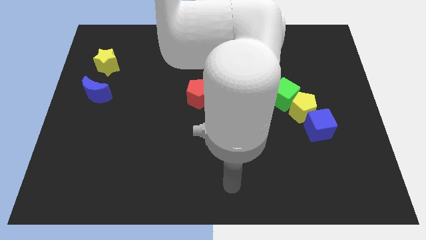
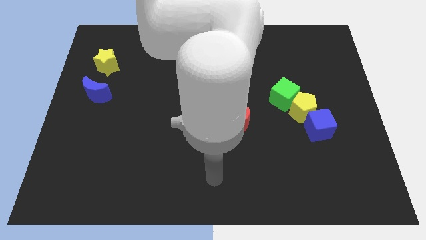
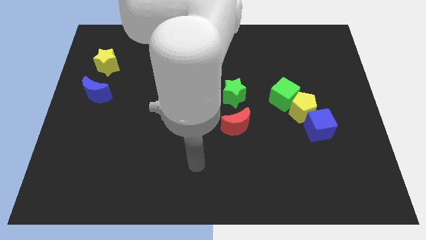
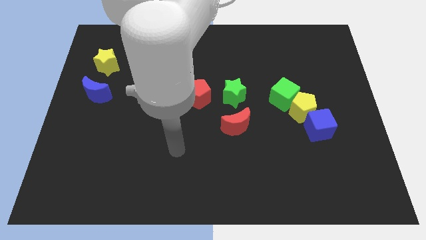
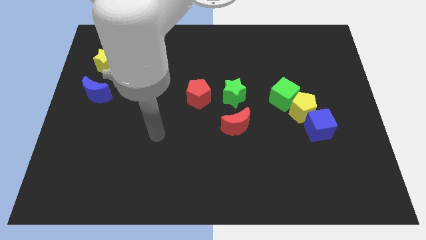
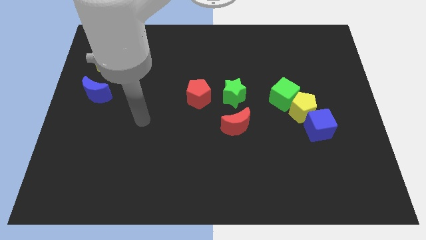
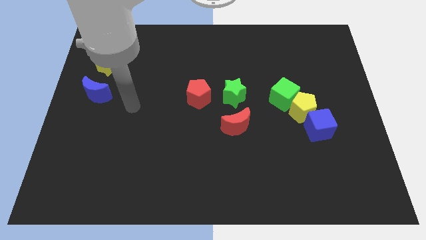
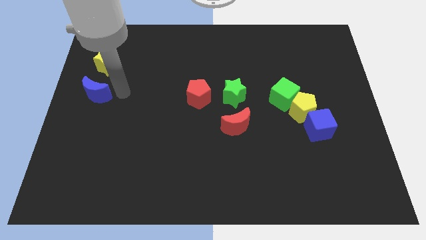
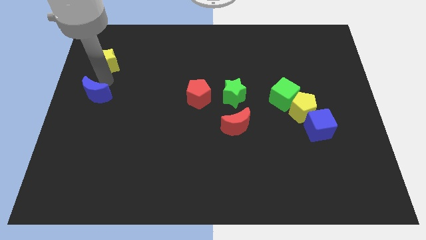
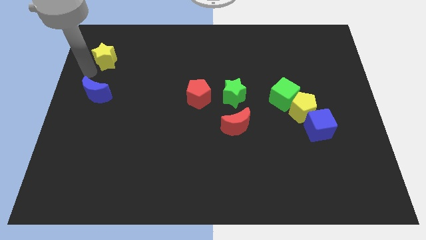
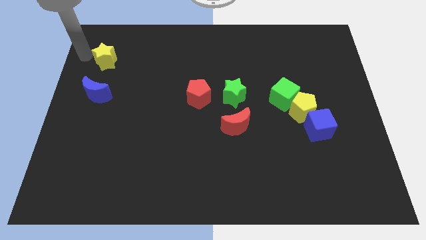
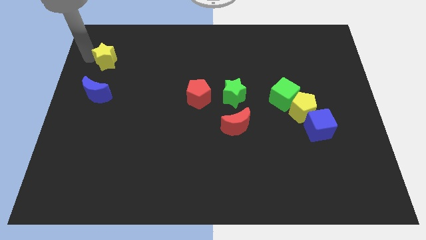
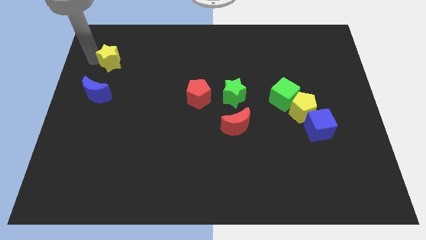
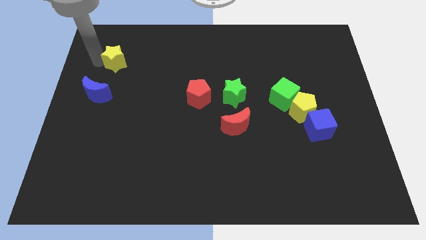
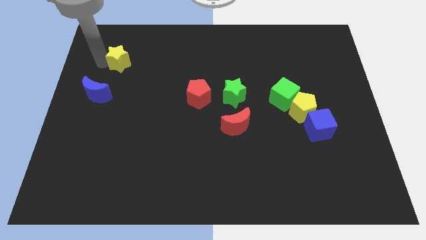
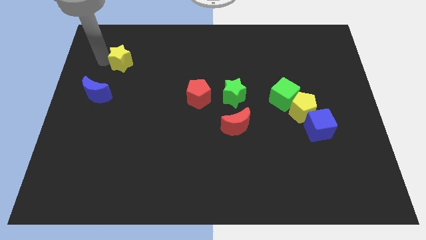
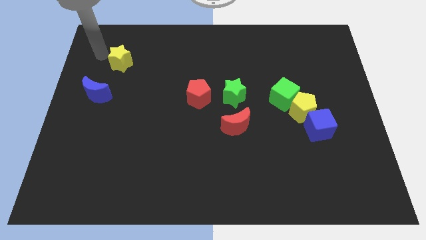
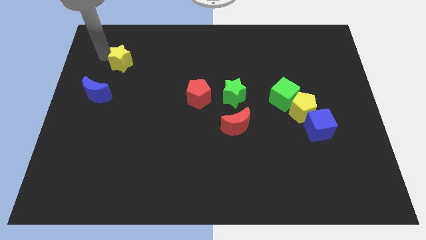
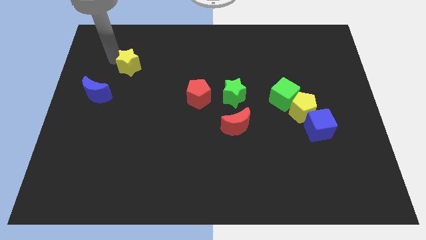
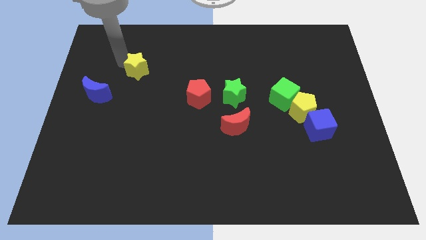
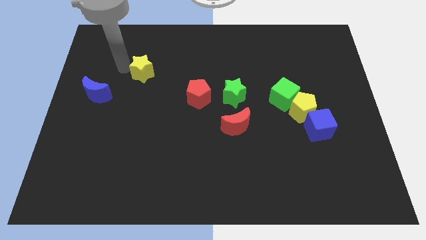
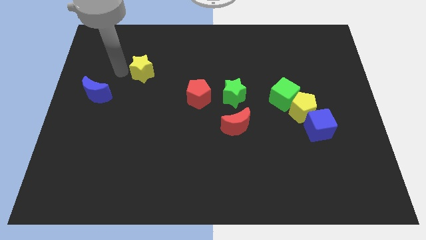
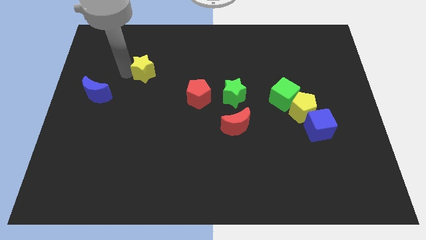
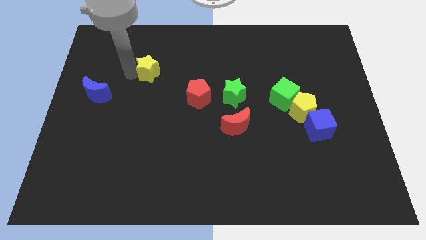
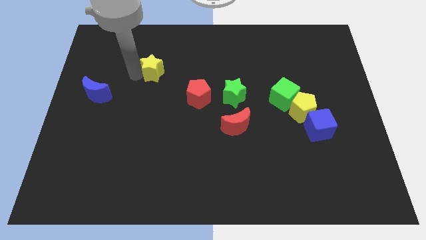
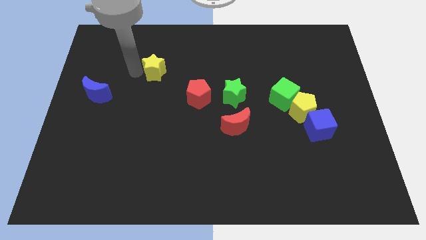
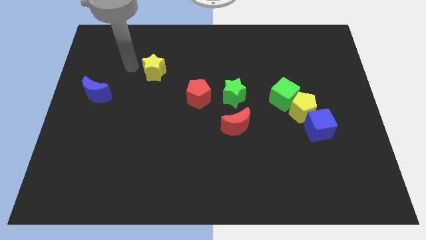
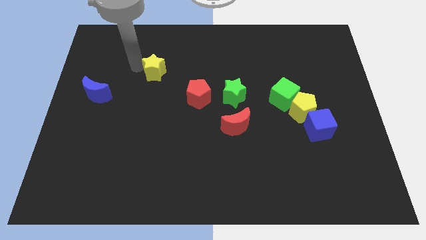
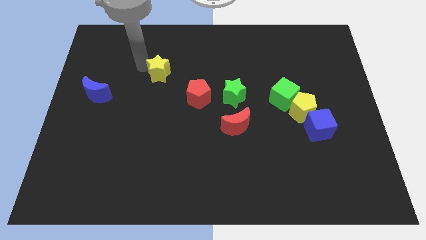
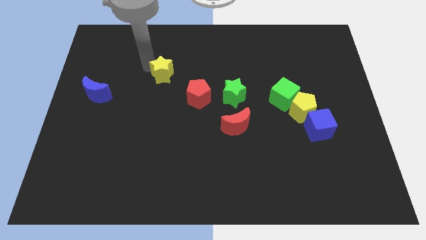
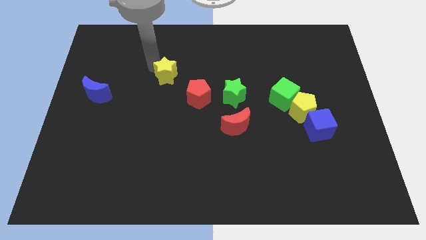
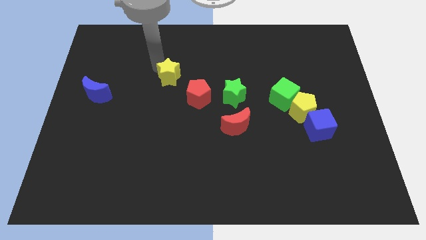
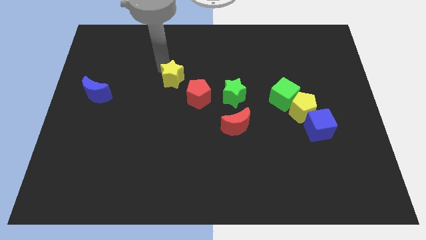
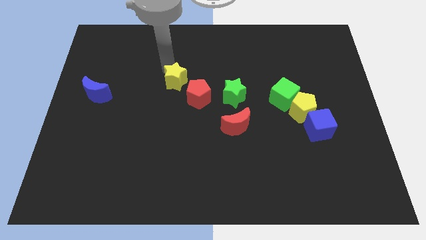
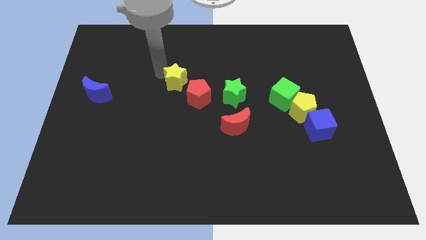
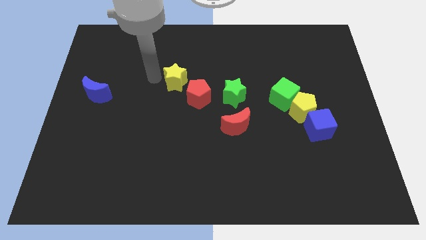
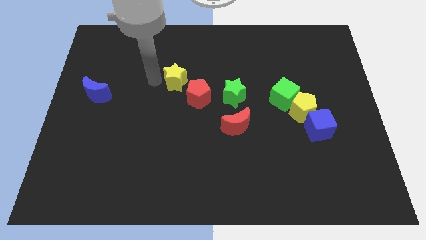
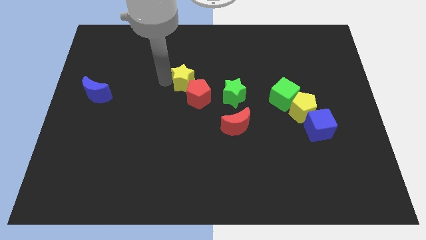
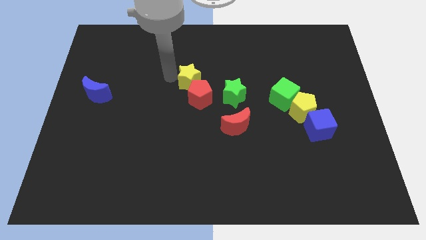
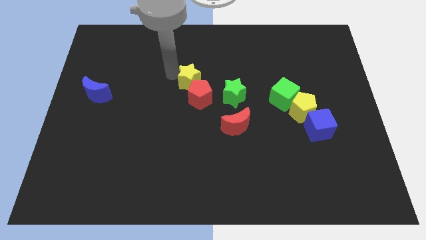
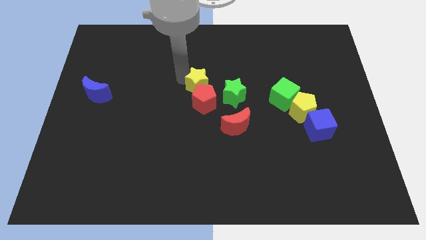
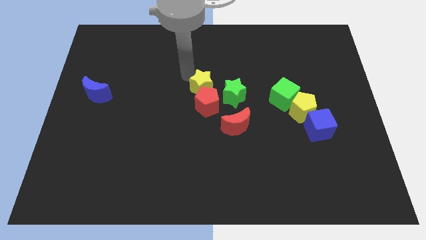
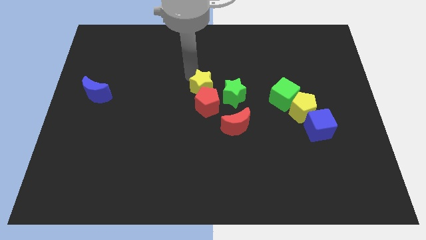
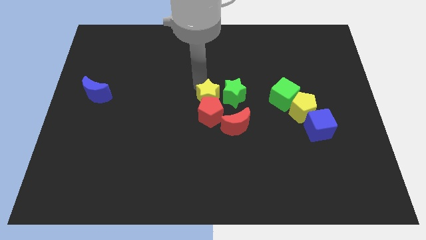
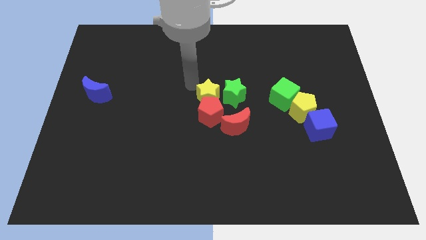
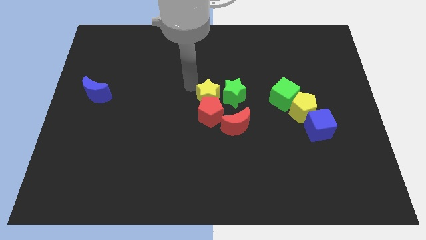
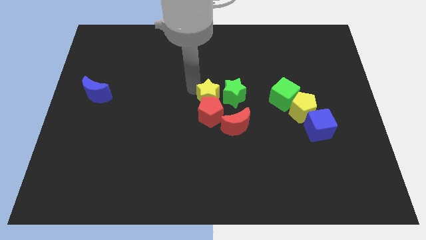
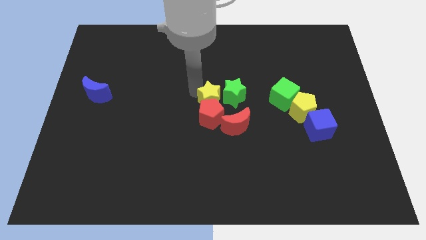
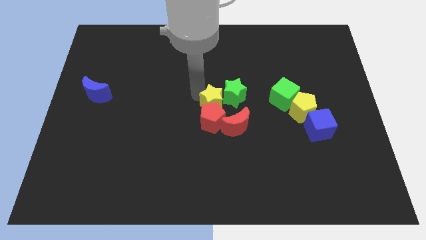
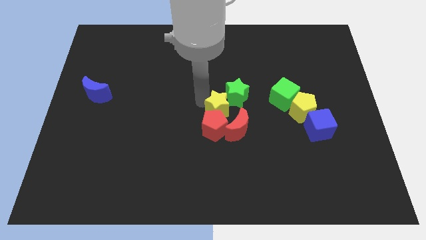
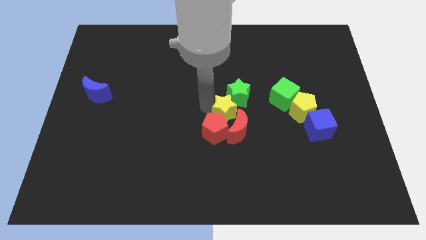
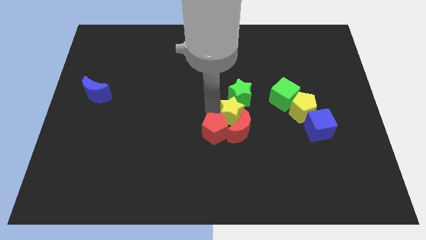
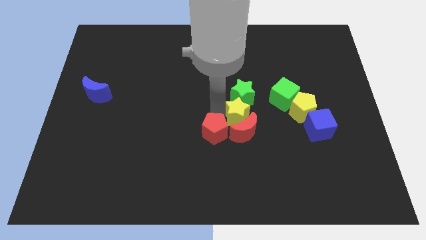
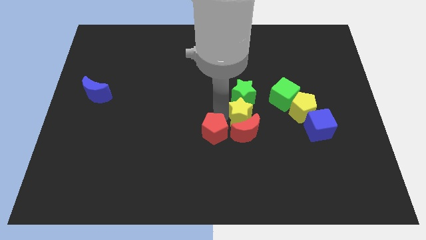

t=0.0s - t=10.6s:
put the yellow star to the bottom right of the green star

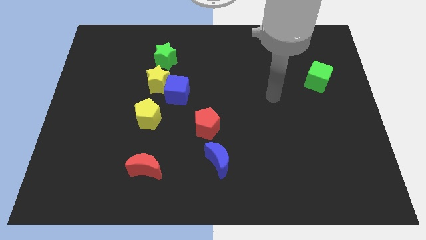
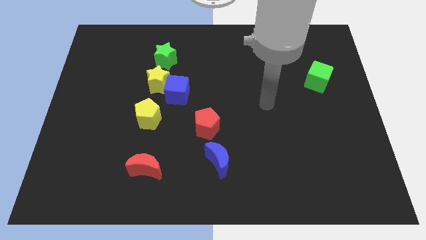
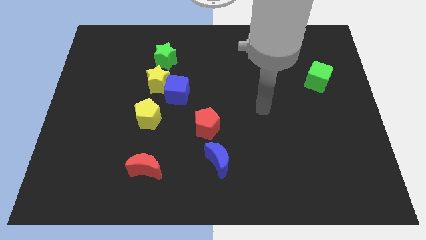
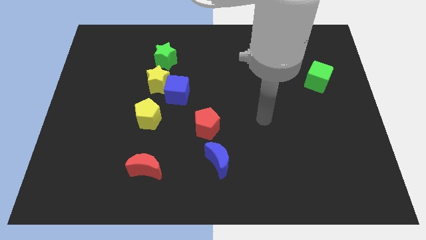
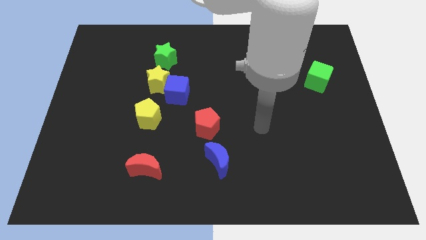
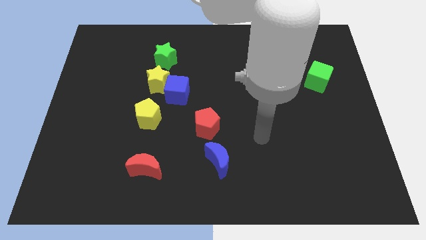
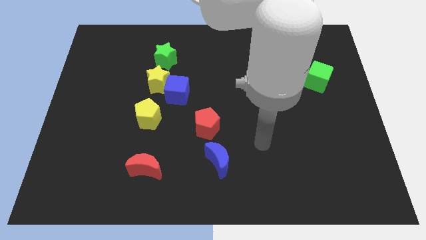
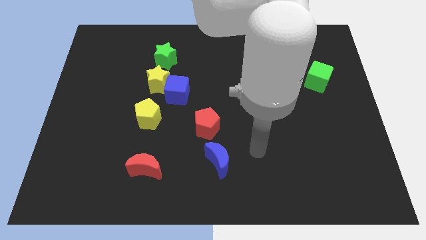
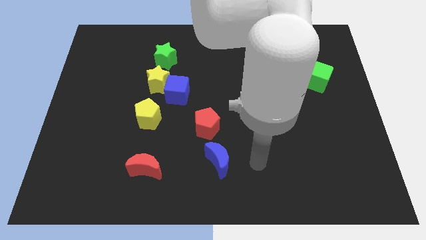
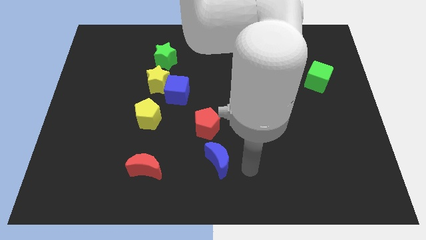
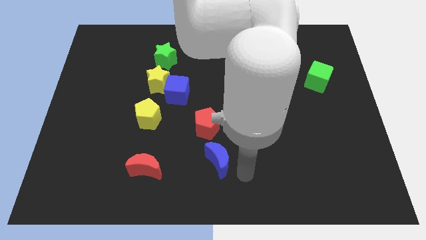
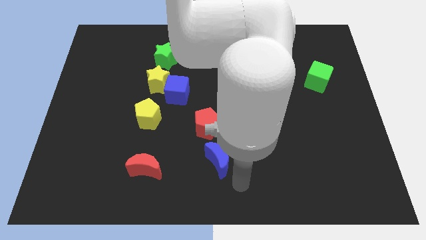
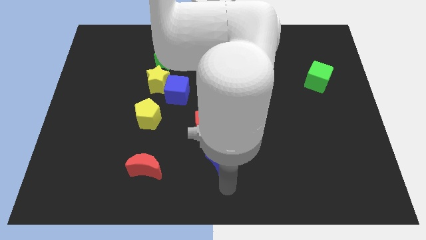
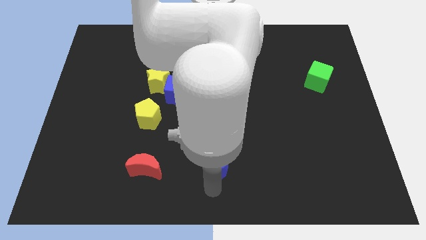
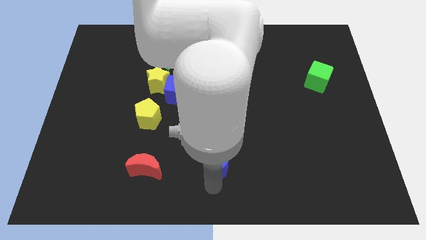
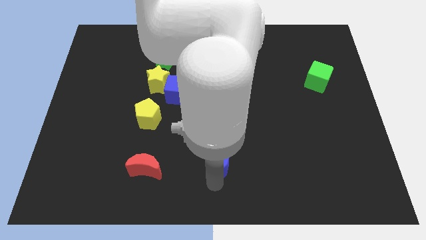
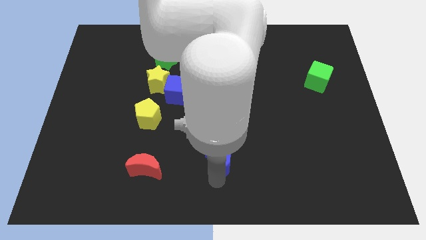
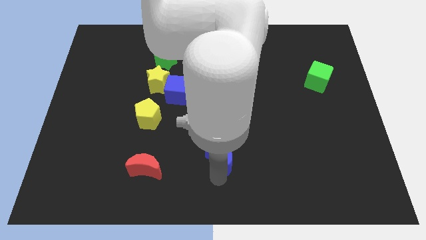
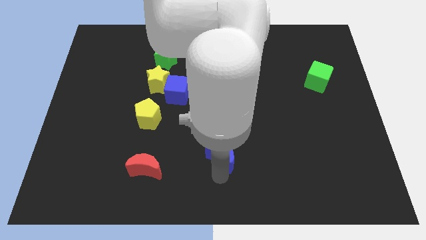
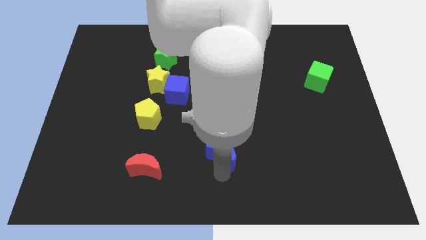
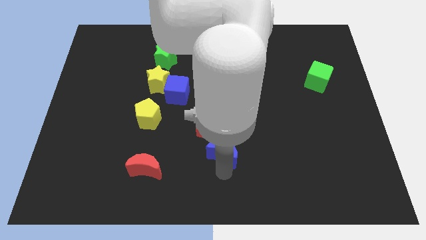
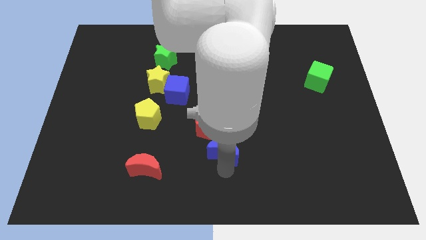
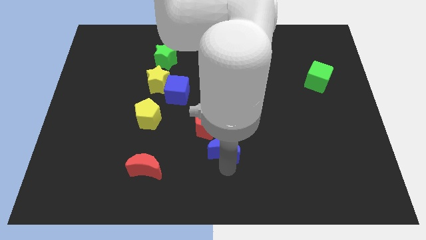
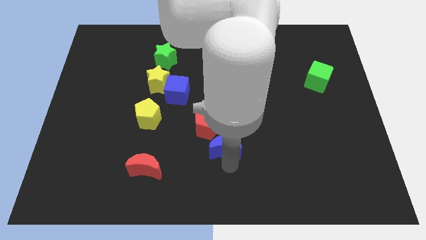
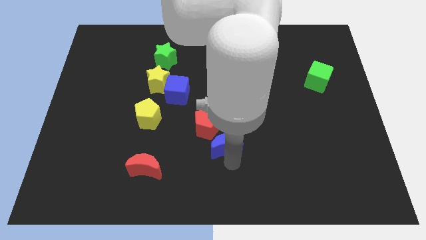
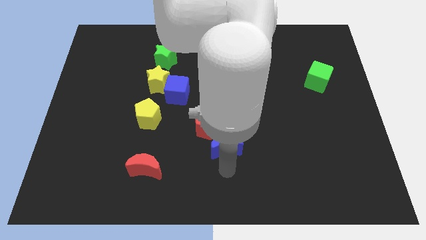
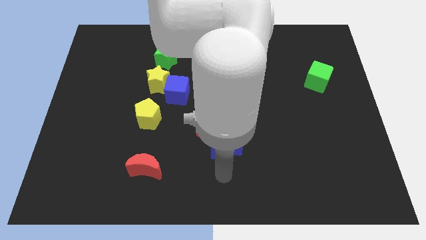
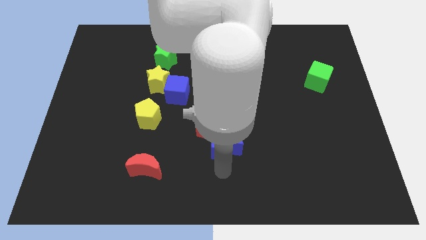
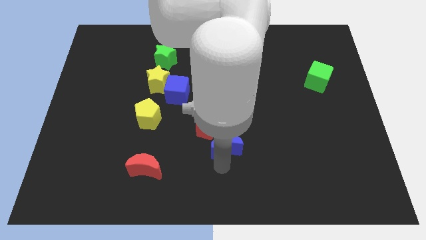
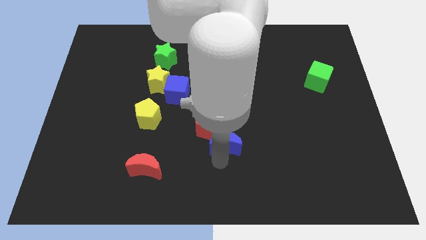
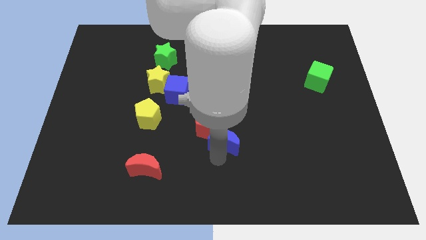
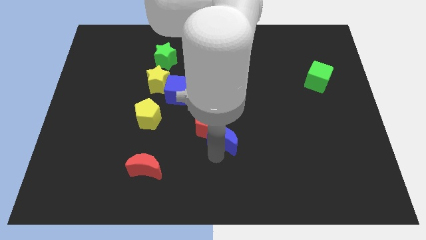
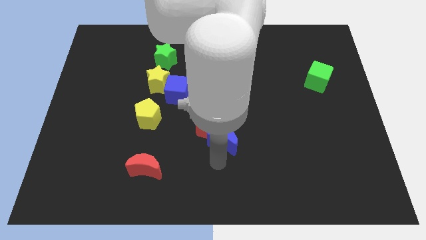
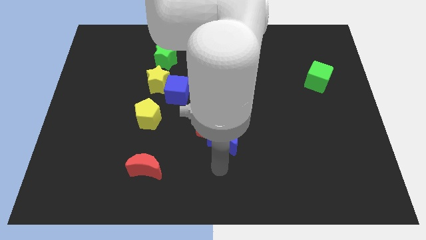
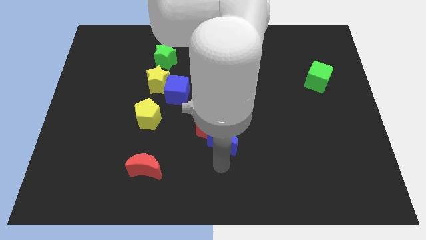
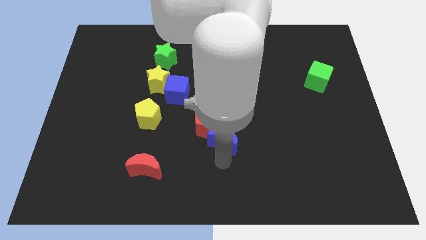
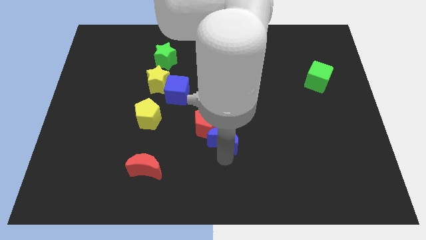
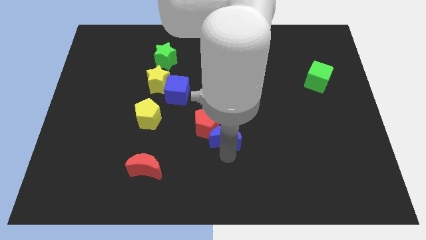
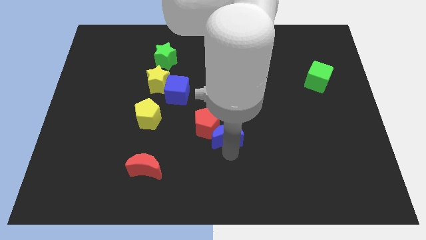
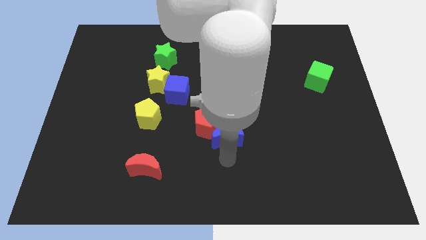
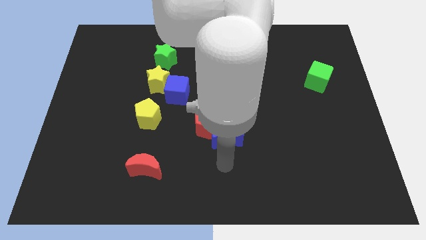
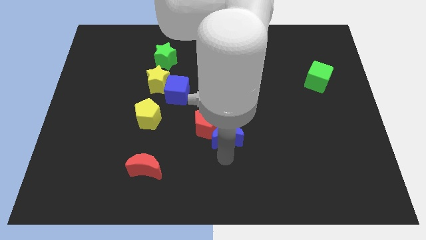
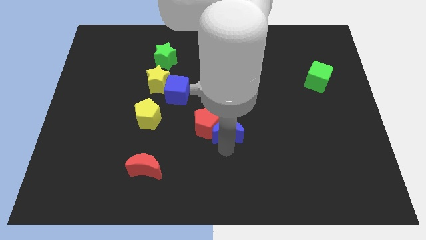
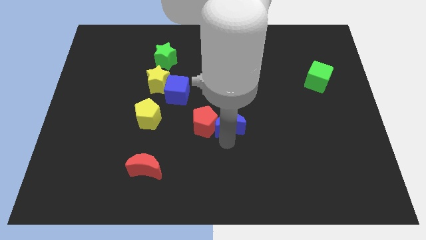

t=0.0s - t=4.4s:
move the blue moon diagonally up and to the right of the red pentagon
